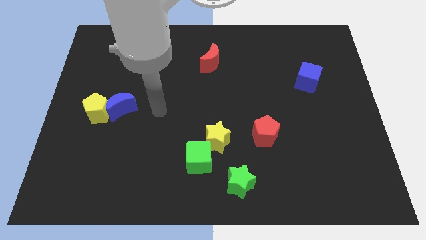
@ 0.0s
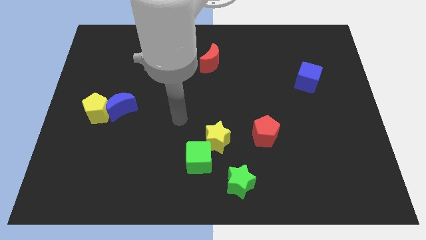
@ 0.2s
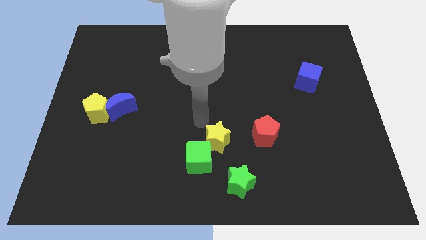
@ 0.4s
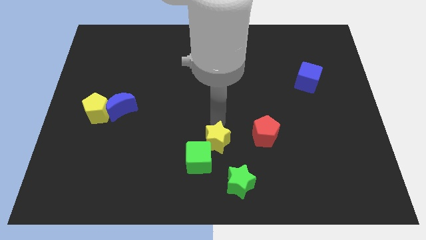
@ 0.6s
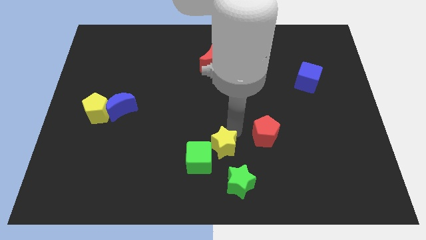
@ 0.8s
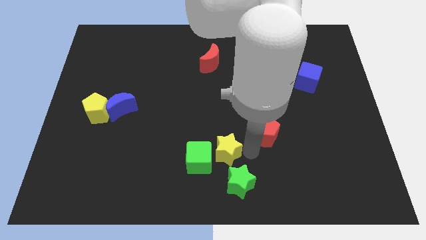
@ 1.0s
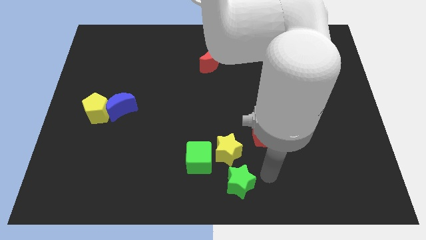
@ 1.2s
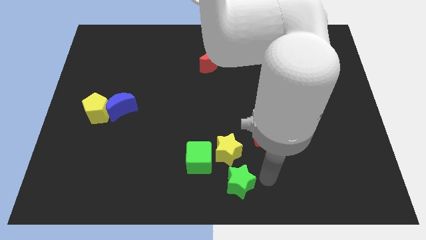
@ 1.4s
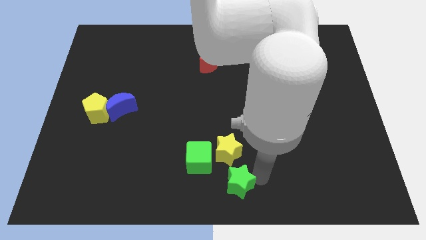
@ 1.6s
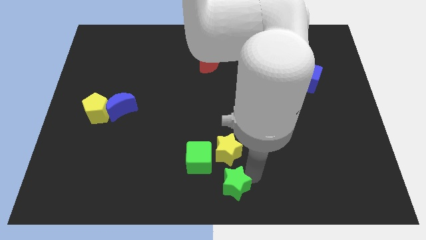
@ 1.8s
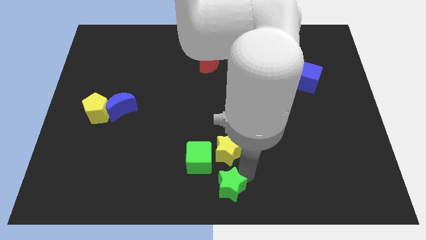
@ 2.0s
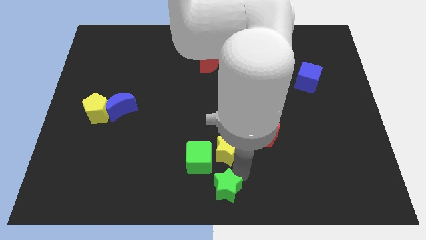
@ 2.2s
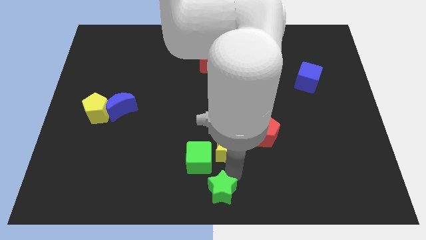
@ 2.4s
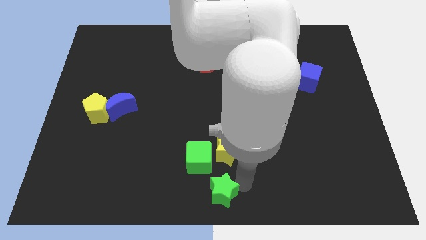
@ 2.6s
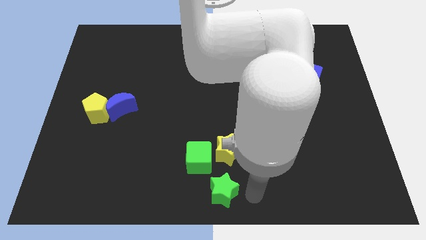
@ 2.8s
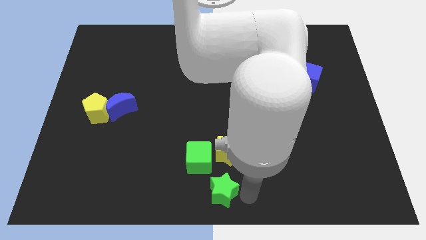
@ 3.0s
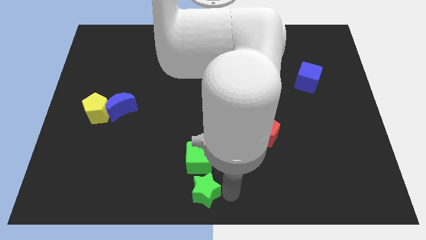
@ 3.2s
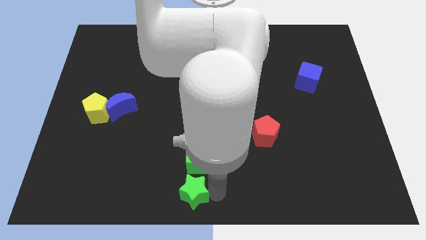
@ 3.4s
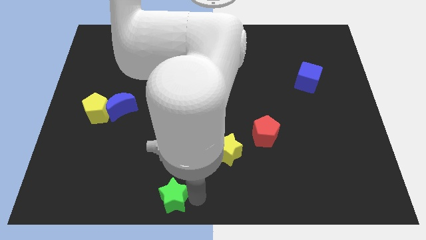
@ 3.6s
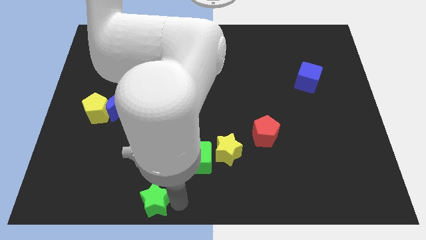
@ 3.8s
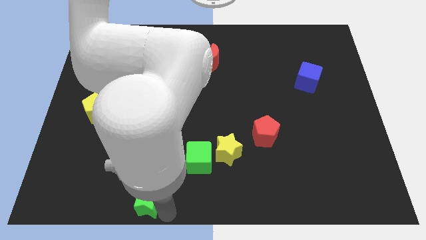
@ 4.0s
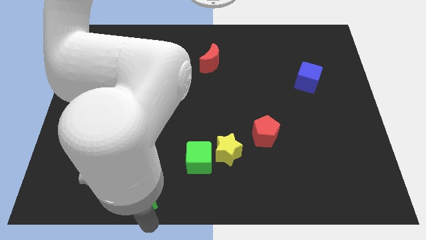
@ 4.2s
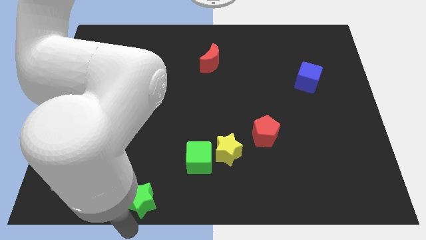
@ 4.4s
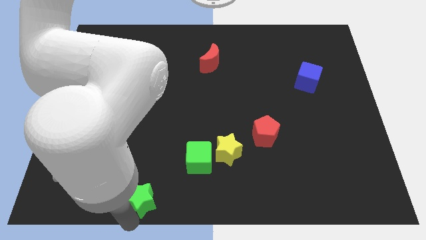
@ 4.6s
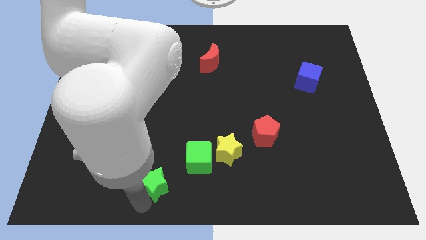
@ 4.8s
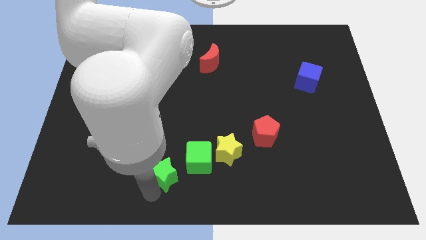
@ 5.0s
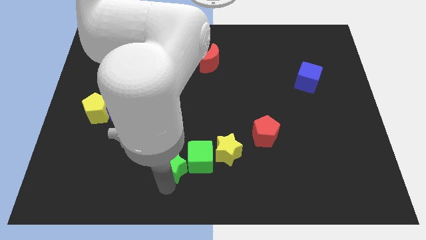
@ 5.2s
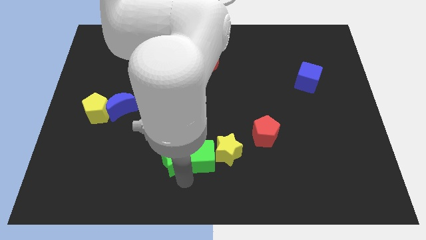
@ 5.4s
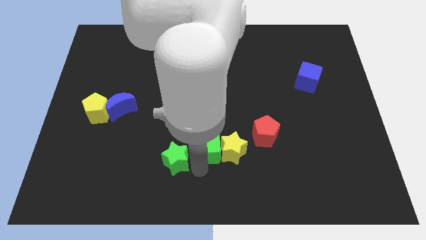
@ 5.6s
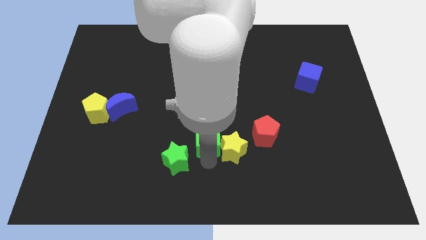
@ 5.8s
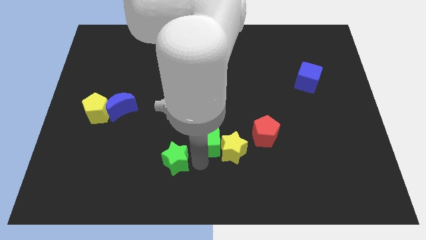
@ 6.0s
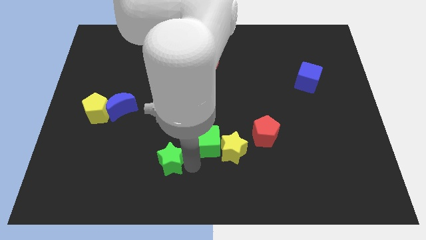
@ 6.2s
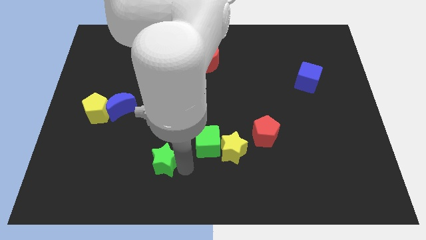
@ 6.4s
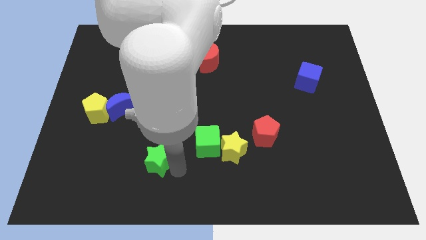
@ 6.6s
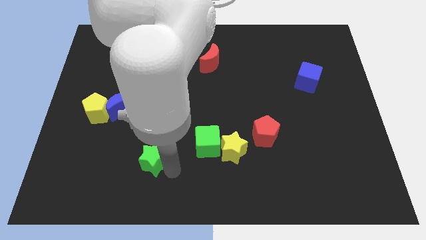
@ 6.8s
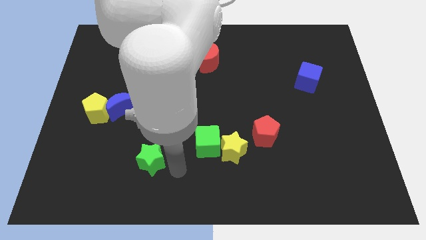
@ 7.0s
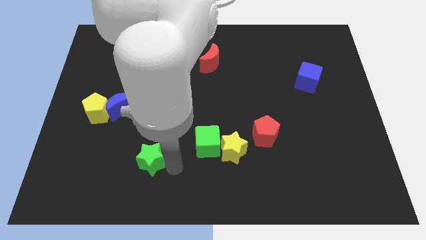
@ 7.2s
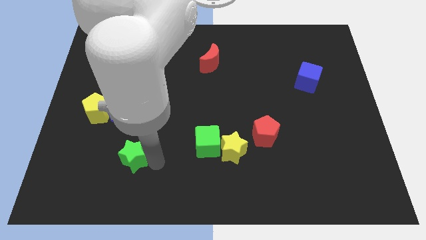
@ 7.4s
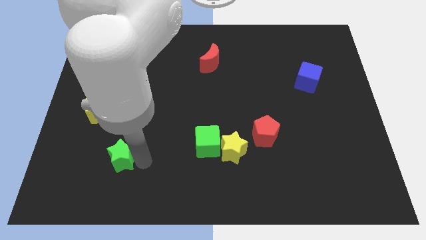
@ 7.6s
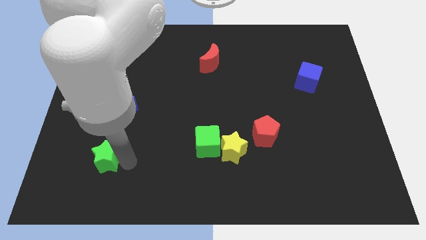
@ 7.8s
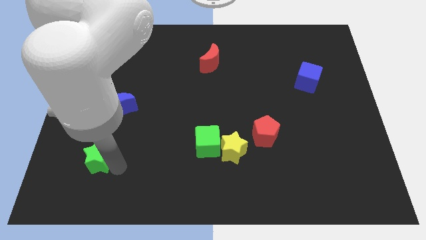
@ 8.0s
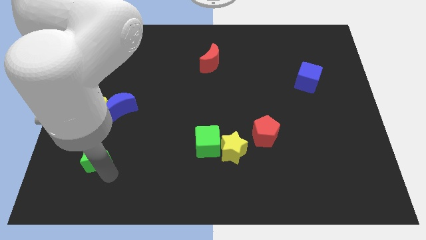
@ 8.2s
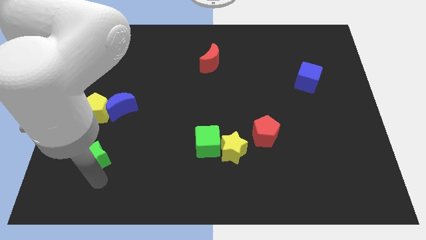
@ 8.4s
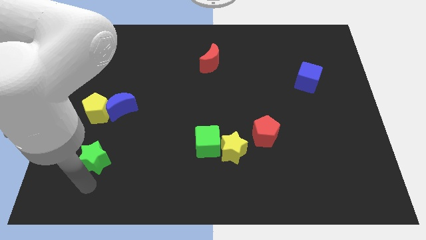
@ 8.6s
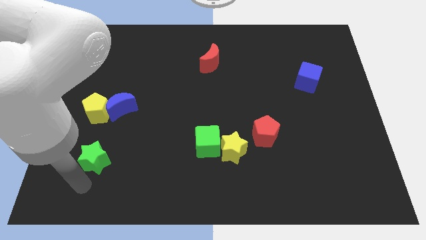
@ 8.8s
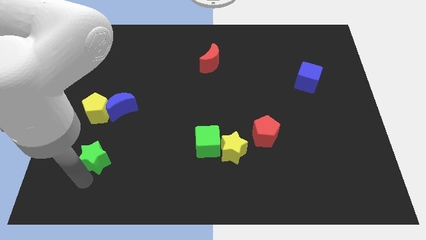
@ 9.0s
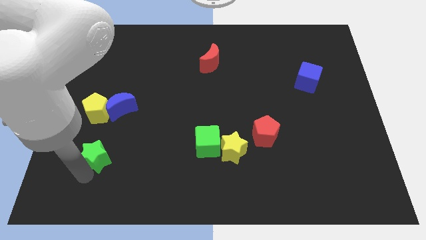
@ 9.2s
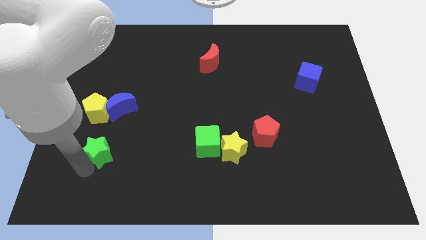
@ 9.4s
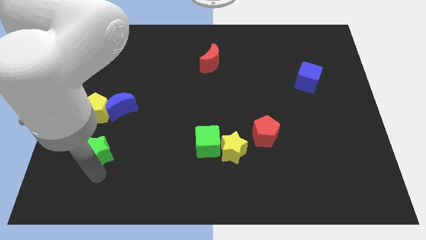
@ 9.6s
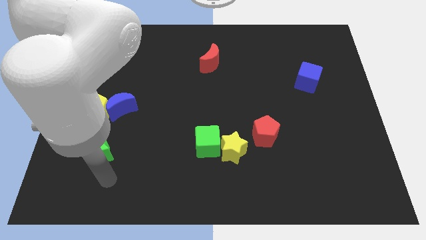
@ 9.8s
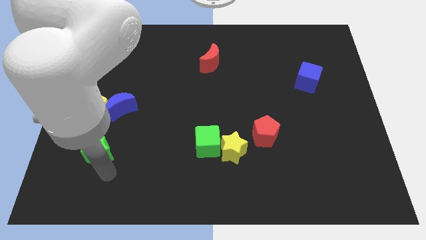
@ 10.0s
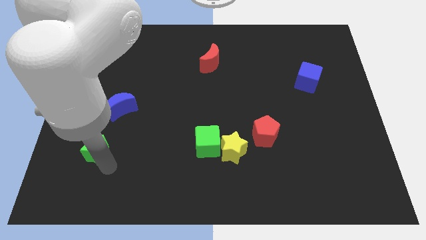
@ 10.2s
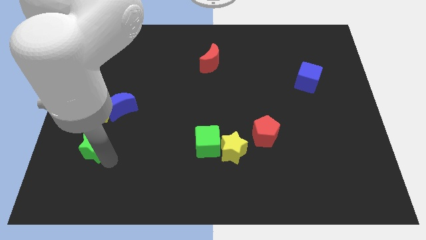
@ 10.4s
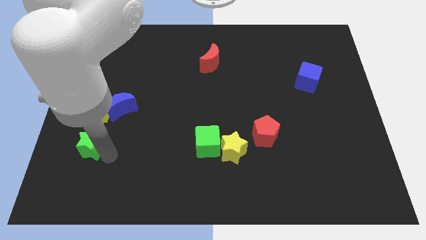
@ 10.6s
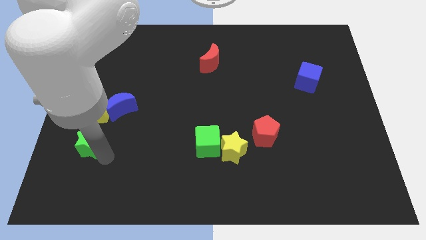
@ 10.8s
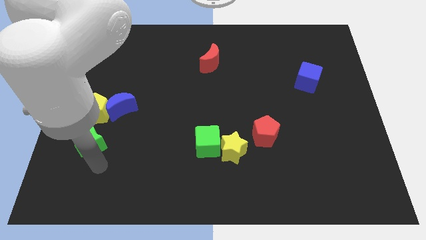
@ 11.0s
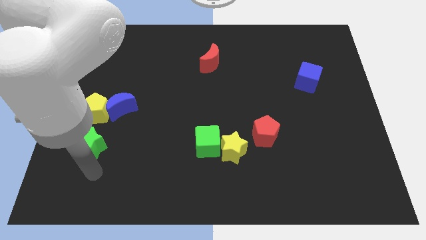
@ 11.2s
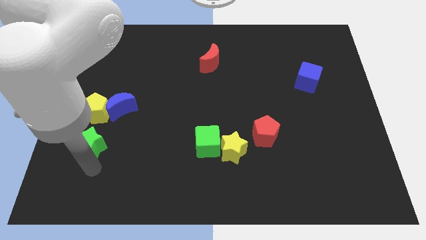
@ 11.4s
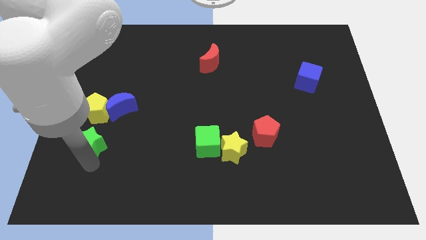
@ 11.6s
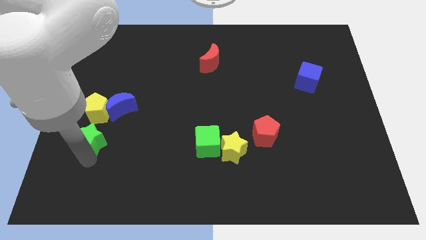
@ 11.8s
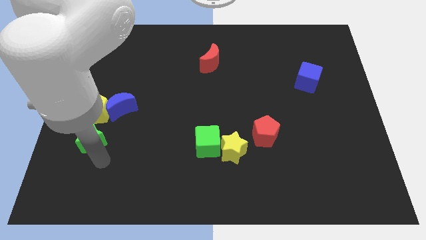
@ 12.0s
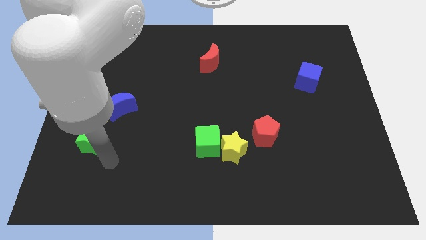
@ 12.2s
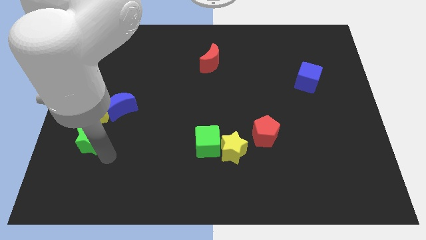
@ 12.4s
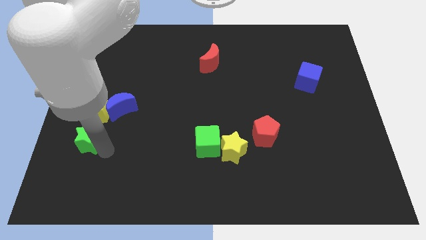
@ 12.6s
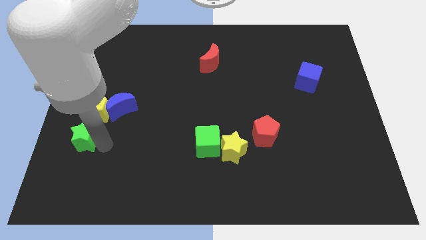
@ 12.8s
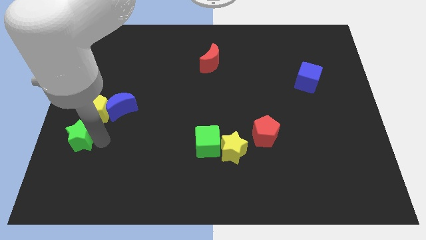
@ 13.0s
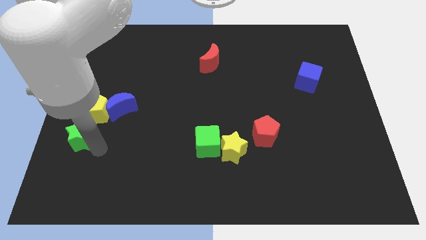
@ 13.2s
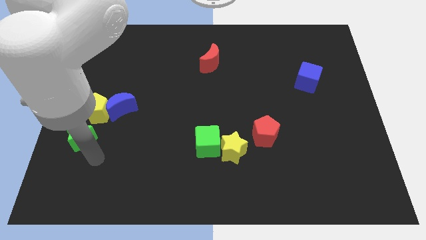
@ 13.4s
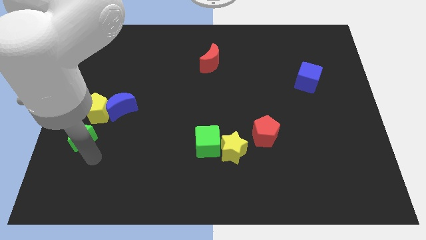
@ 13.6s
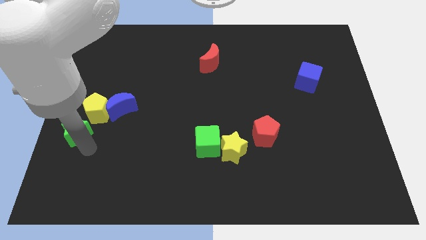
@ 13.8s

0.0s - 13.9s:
move the green star to the center left

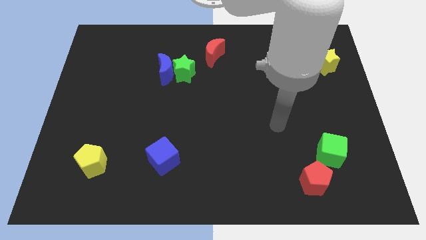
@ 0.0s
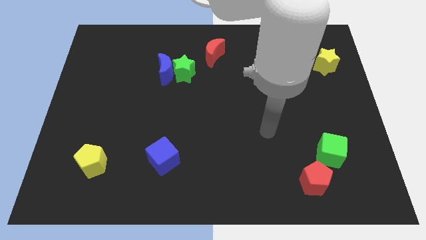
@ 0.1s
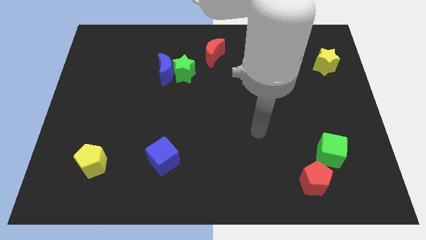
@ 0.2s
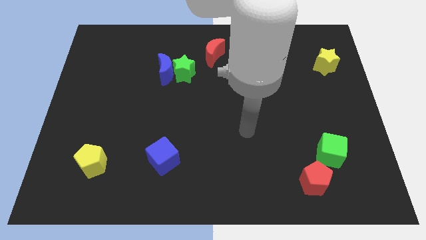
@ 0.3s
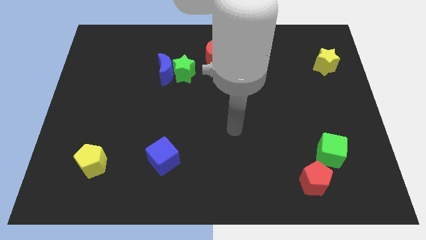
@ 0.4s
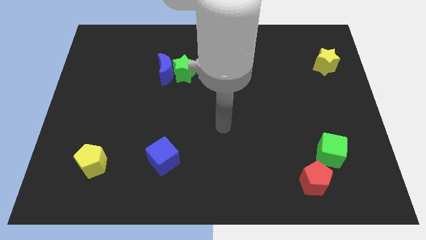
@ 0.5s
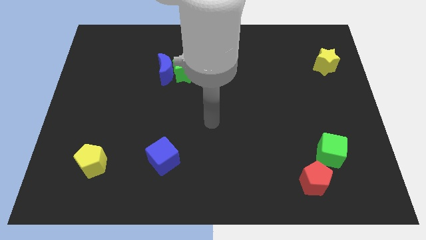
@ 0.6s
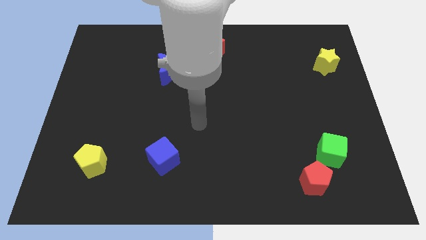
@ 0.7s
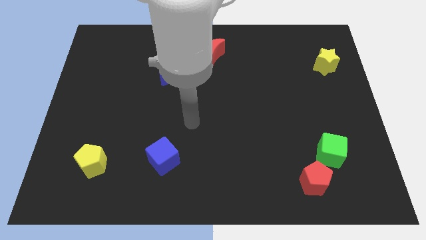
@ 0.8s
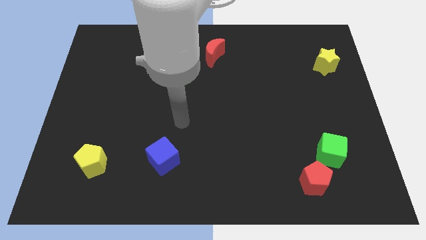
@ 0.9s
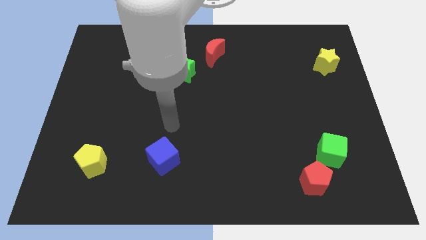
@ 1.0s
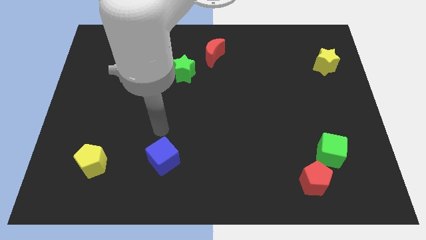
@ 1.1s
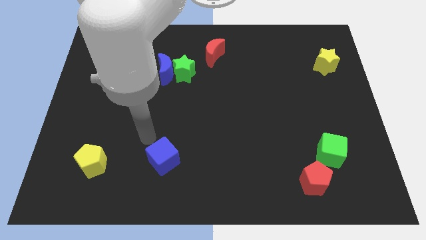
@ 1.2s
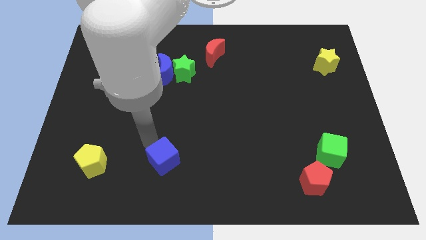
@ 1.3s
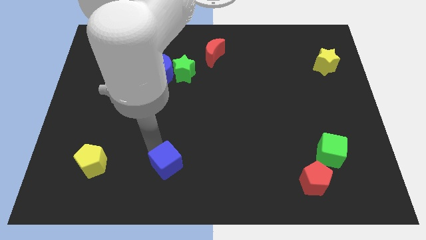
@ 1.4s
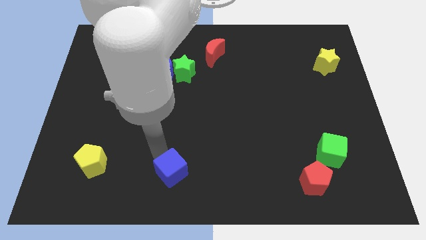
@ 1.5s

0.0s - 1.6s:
put the blue cube to the bottom
